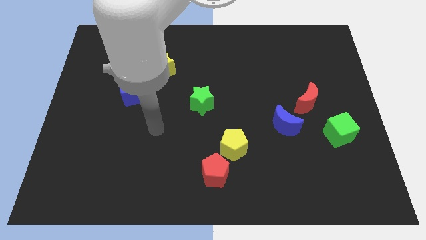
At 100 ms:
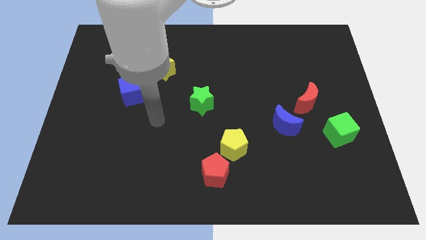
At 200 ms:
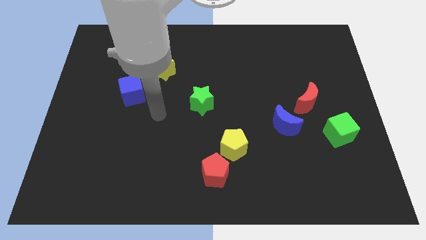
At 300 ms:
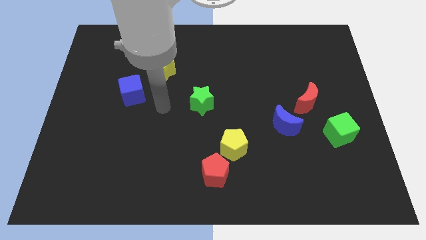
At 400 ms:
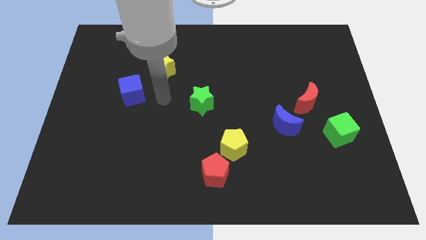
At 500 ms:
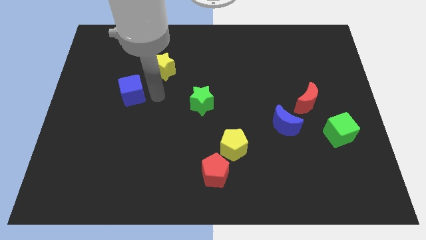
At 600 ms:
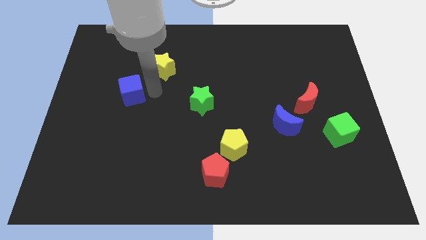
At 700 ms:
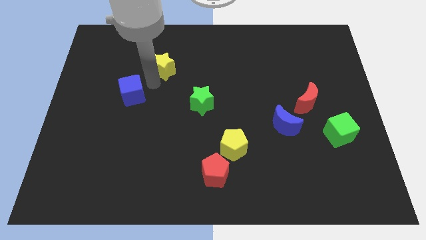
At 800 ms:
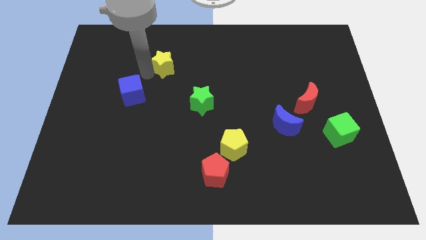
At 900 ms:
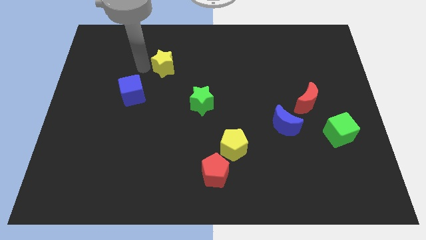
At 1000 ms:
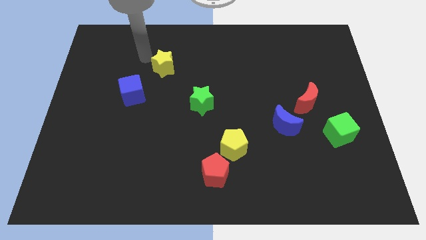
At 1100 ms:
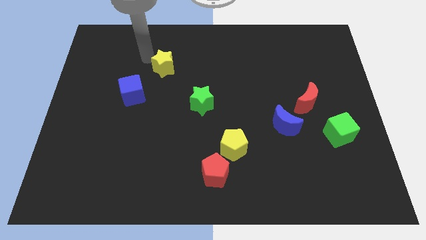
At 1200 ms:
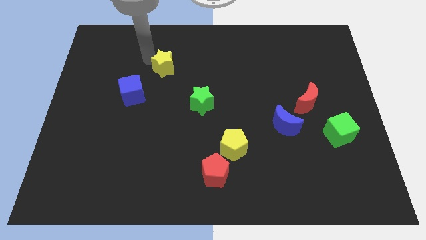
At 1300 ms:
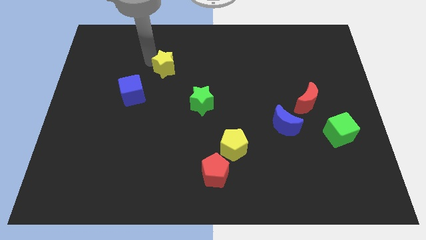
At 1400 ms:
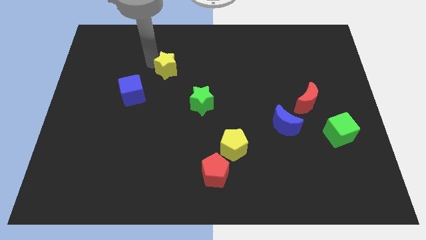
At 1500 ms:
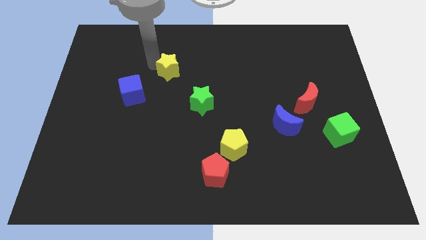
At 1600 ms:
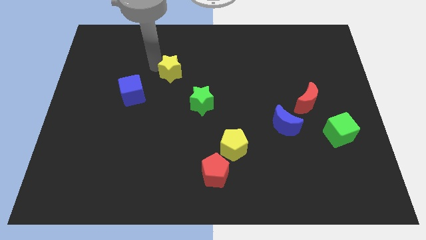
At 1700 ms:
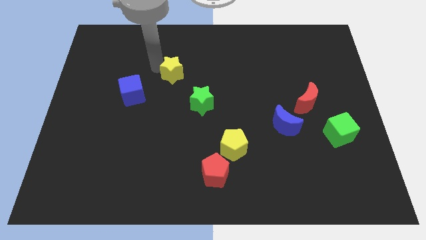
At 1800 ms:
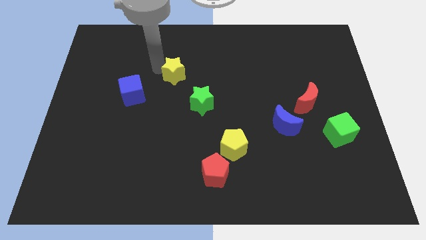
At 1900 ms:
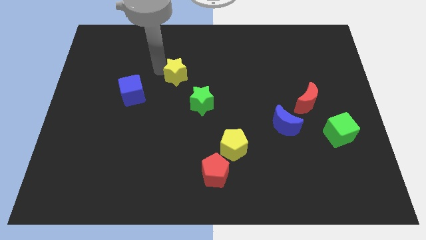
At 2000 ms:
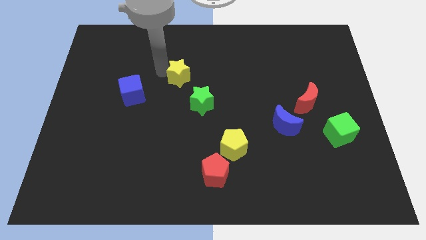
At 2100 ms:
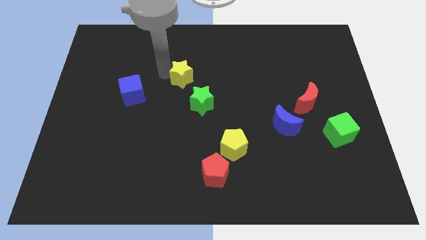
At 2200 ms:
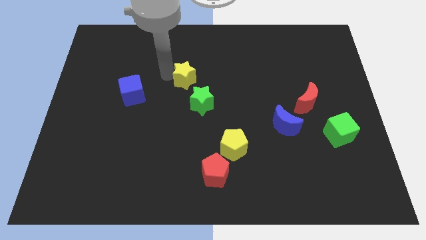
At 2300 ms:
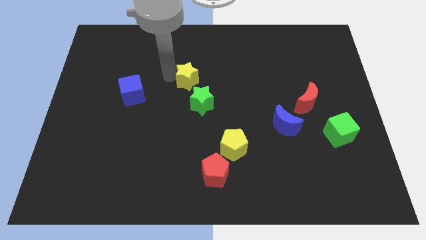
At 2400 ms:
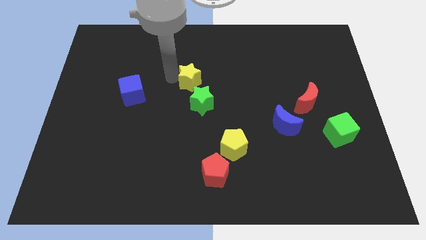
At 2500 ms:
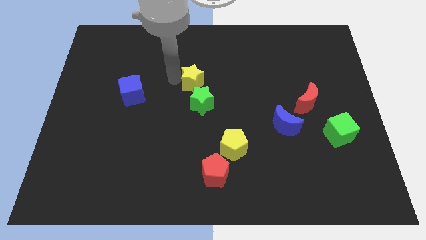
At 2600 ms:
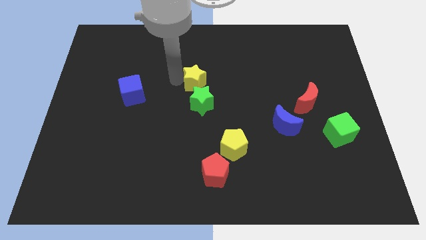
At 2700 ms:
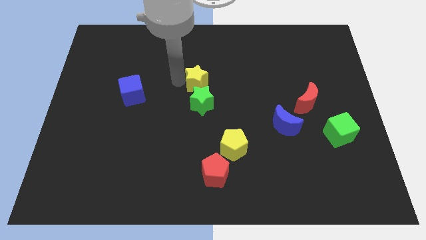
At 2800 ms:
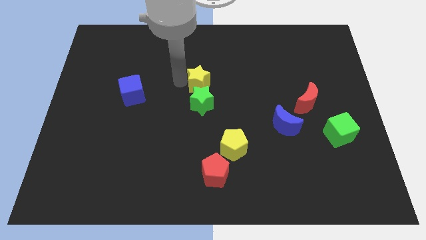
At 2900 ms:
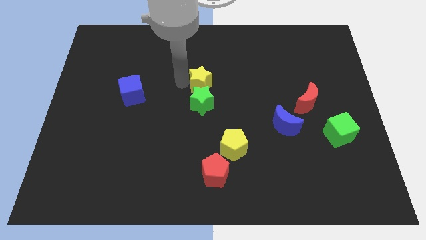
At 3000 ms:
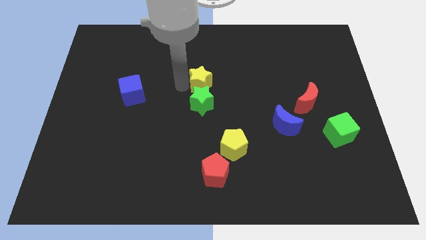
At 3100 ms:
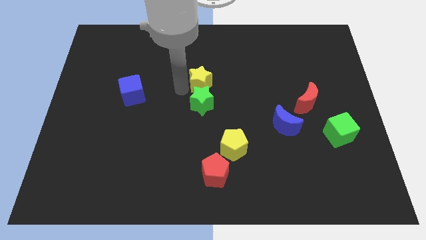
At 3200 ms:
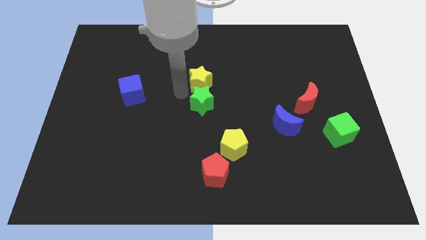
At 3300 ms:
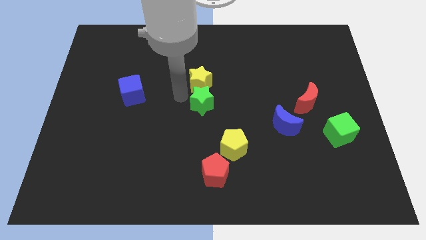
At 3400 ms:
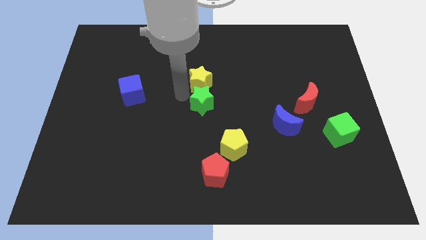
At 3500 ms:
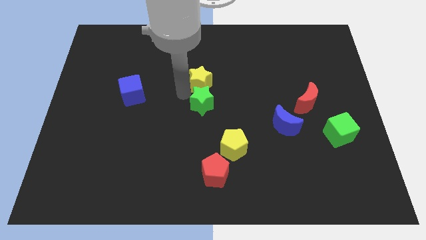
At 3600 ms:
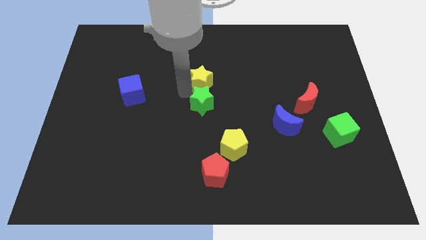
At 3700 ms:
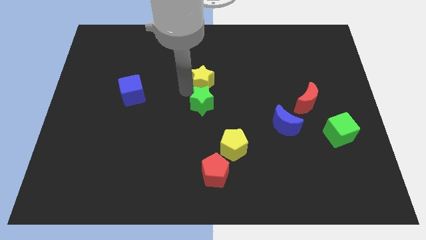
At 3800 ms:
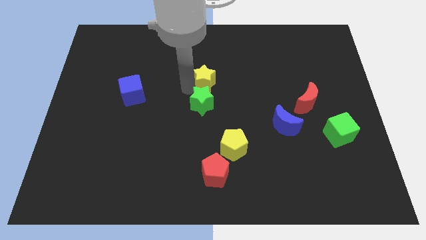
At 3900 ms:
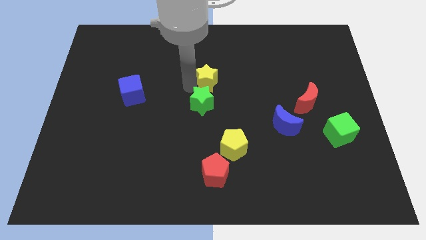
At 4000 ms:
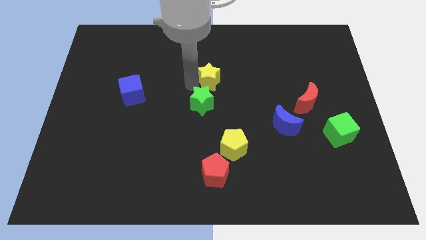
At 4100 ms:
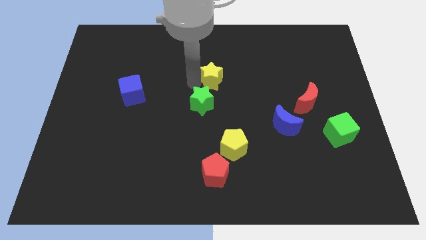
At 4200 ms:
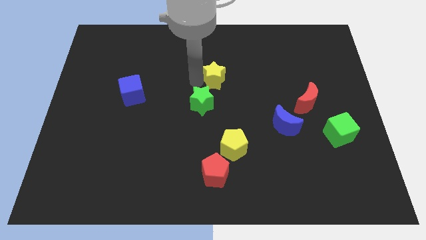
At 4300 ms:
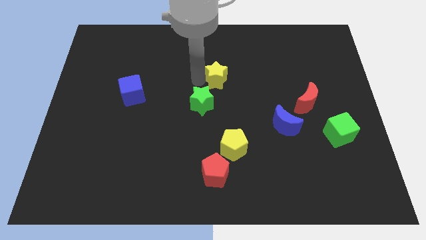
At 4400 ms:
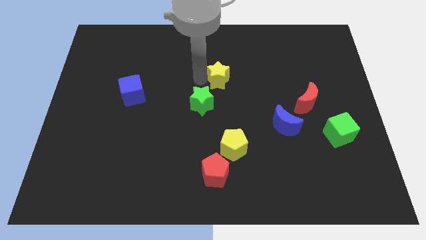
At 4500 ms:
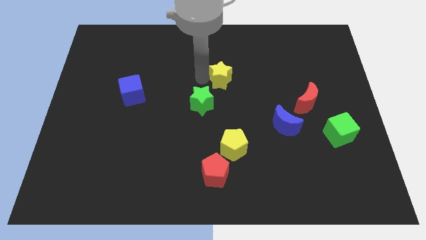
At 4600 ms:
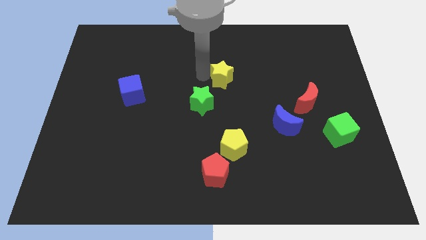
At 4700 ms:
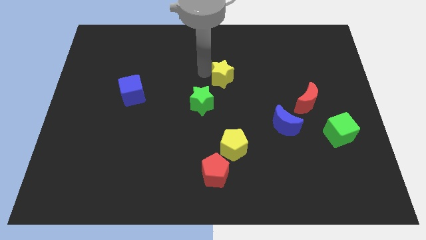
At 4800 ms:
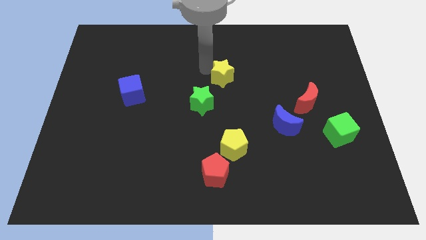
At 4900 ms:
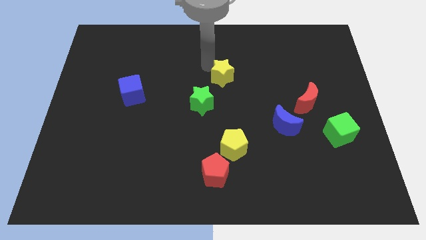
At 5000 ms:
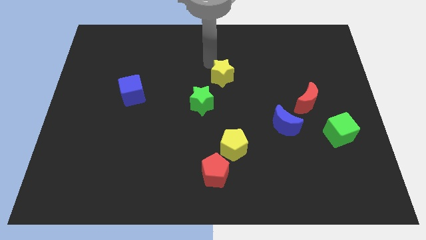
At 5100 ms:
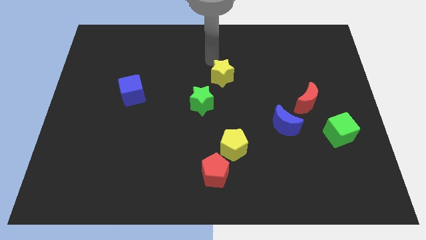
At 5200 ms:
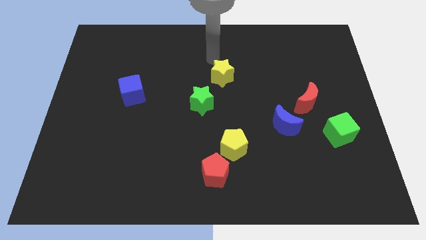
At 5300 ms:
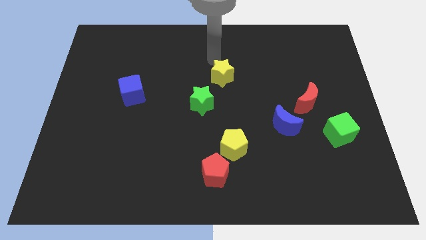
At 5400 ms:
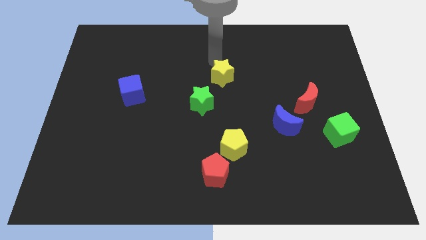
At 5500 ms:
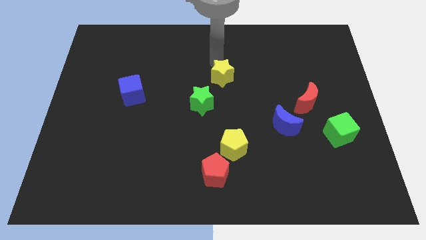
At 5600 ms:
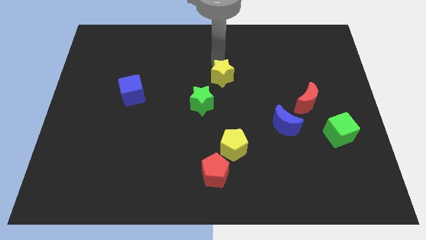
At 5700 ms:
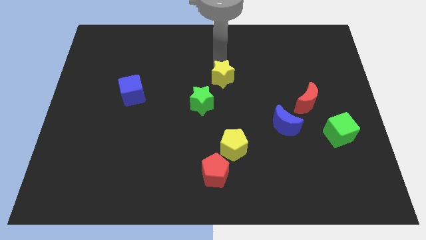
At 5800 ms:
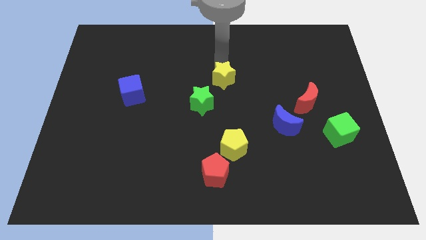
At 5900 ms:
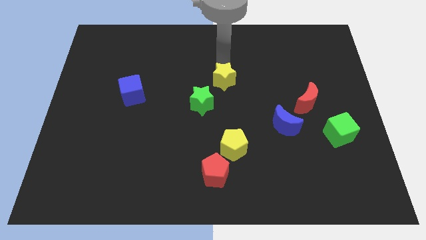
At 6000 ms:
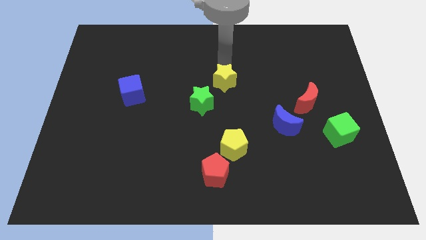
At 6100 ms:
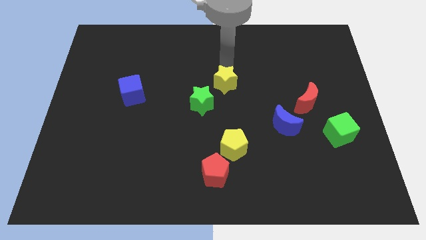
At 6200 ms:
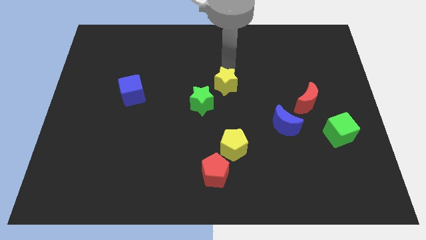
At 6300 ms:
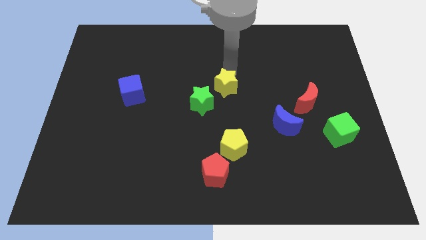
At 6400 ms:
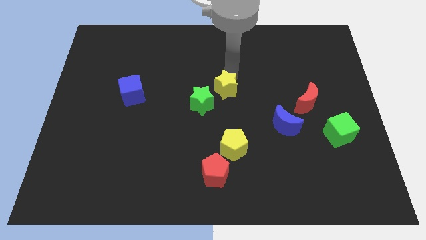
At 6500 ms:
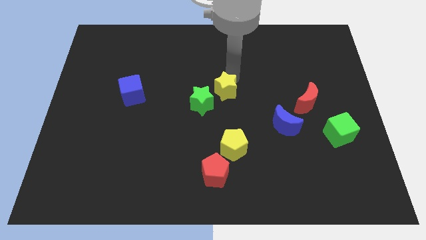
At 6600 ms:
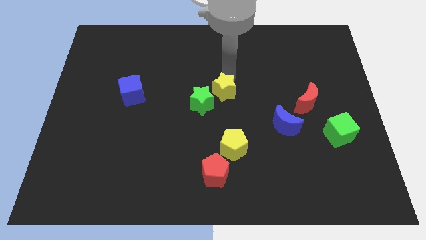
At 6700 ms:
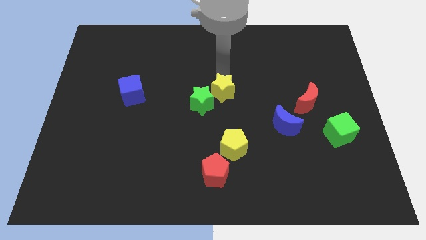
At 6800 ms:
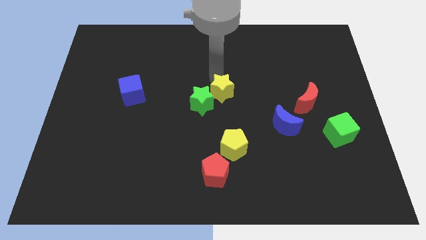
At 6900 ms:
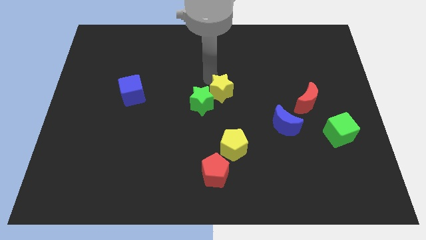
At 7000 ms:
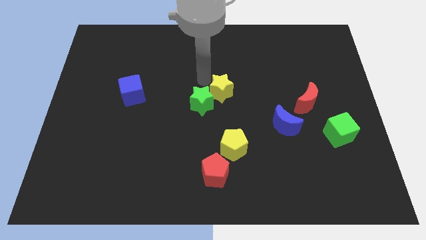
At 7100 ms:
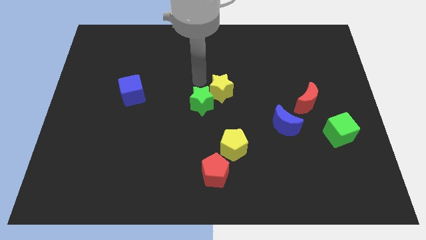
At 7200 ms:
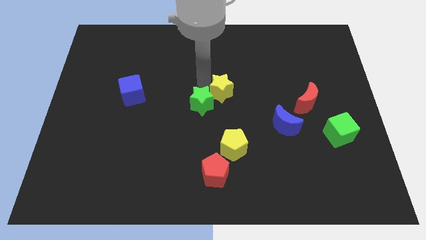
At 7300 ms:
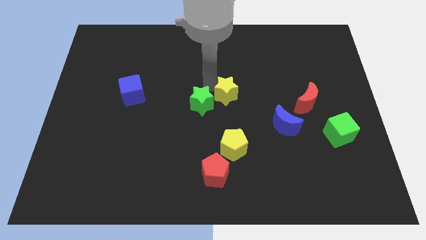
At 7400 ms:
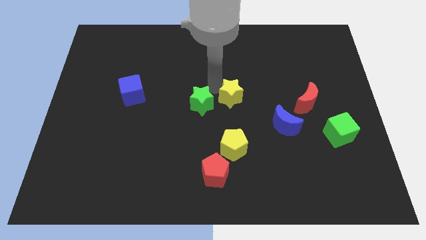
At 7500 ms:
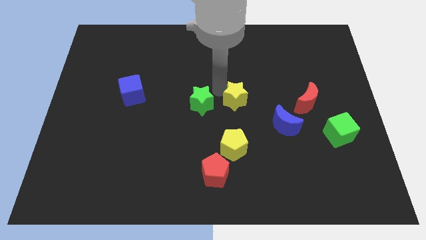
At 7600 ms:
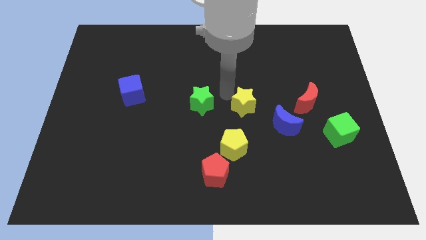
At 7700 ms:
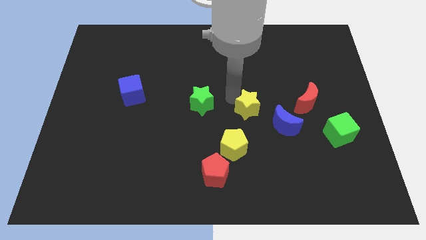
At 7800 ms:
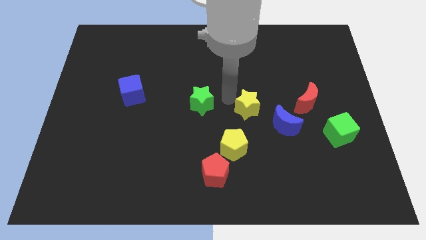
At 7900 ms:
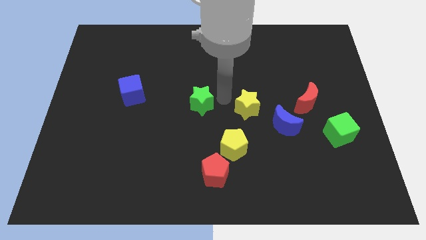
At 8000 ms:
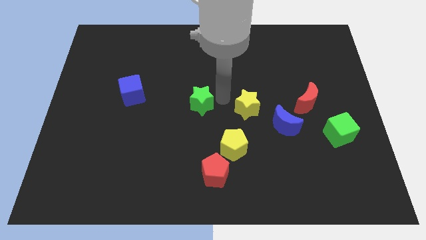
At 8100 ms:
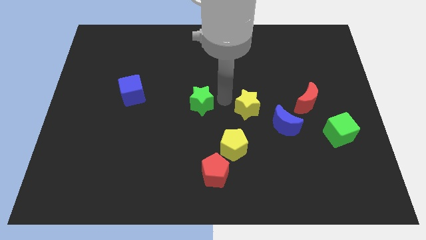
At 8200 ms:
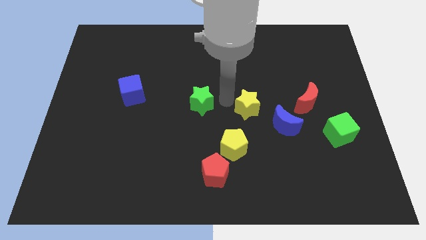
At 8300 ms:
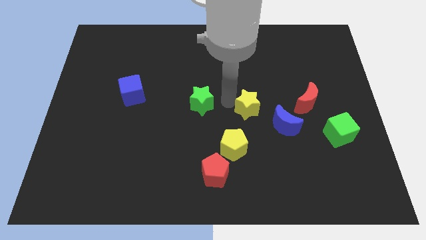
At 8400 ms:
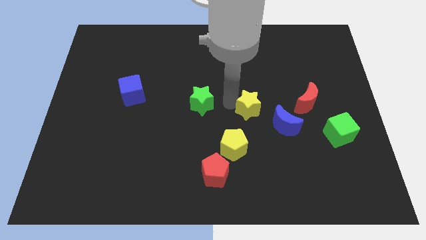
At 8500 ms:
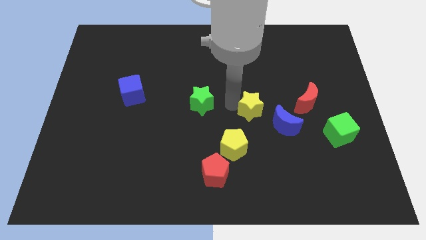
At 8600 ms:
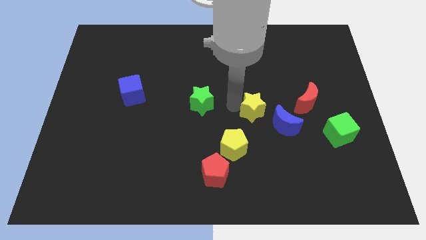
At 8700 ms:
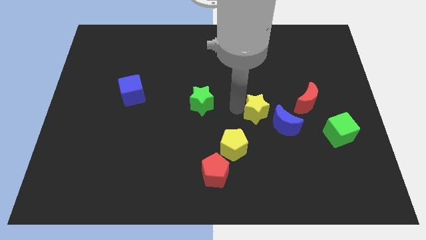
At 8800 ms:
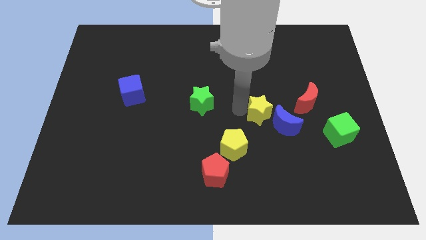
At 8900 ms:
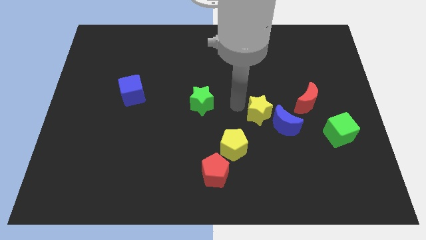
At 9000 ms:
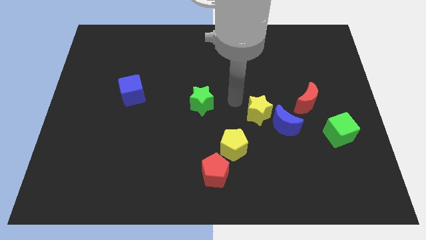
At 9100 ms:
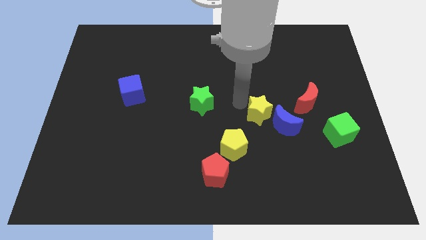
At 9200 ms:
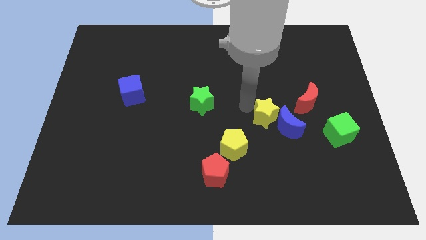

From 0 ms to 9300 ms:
slide the yellow star close to the blue moon
